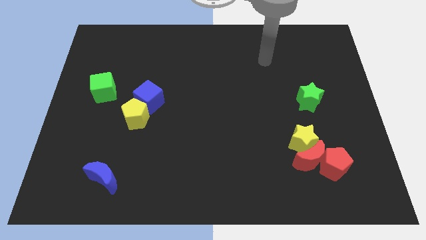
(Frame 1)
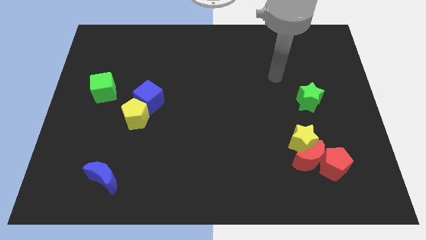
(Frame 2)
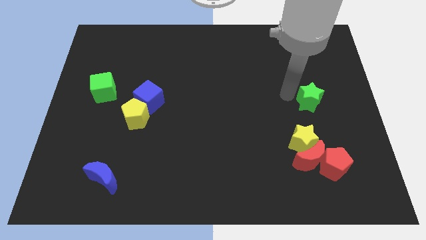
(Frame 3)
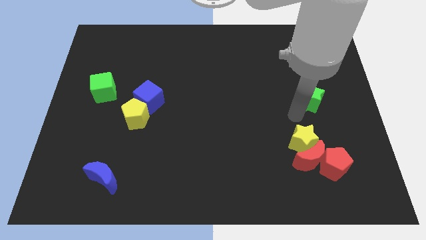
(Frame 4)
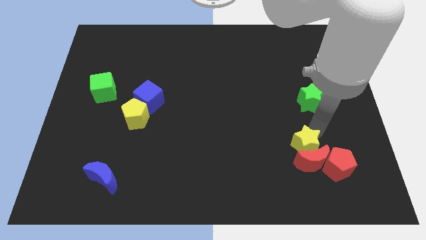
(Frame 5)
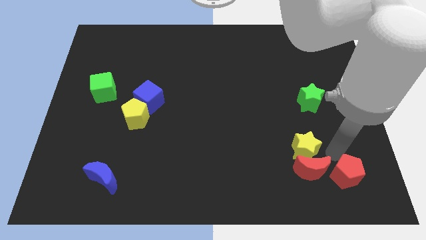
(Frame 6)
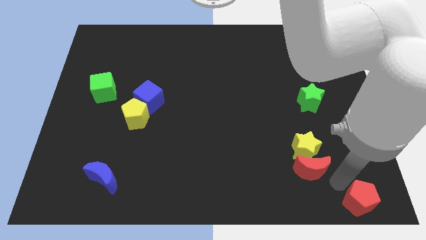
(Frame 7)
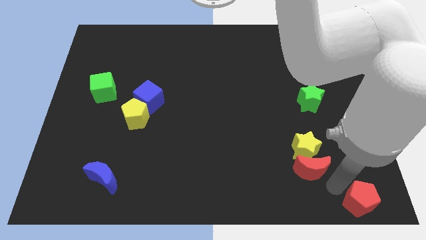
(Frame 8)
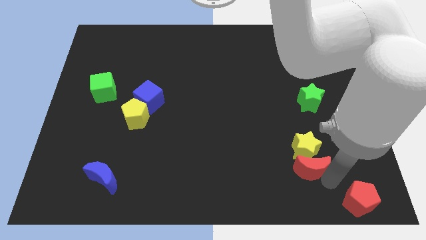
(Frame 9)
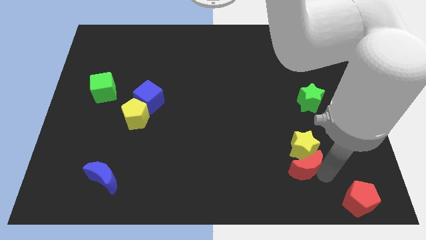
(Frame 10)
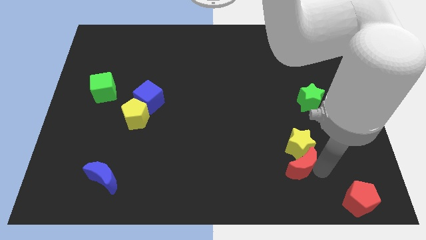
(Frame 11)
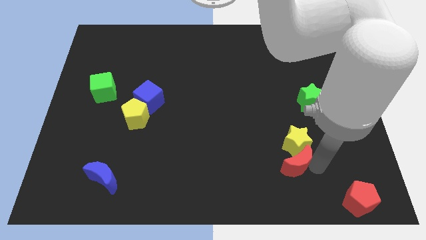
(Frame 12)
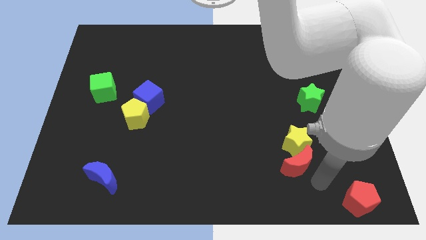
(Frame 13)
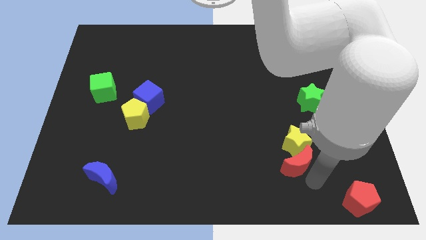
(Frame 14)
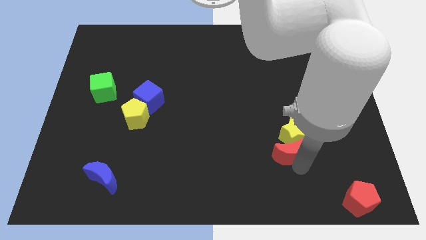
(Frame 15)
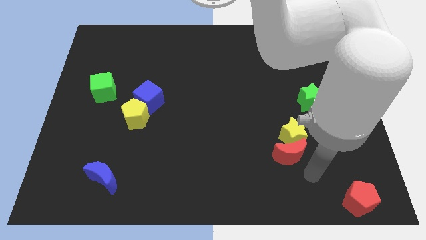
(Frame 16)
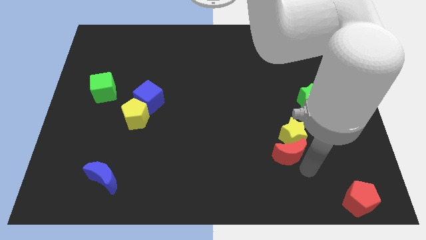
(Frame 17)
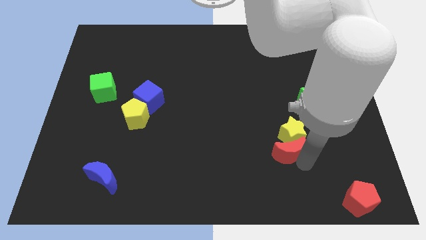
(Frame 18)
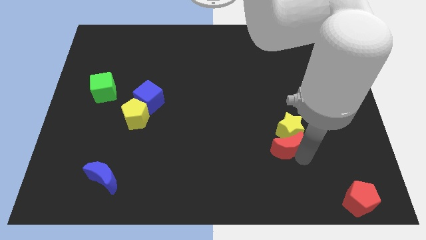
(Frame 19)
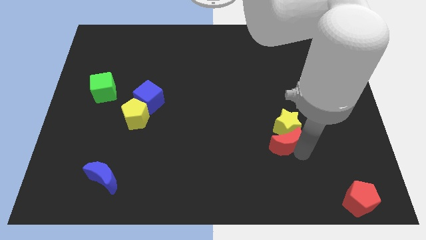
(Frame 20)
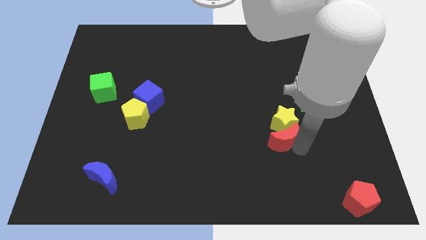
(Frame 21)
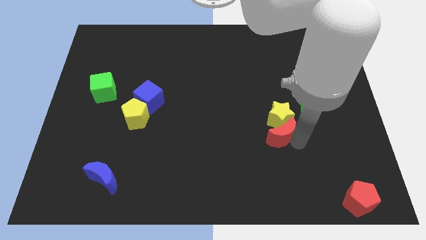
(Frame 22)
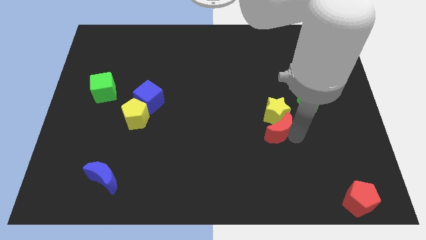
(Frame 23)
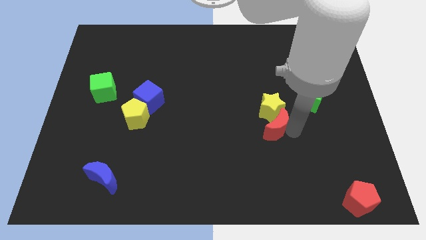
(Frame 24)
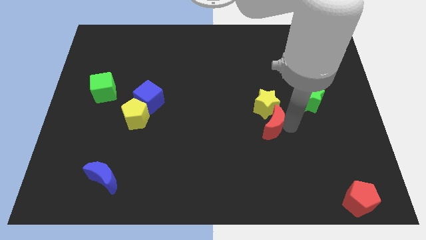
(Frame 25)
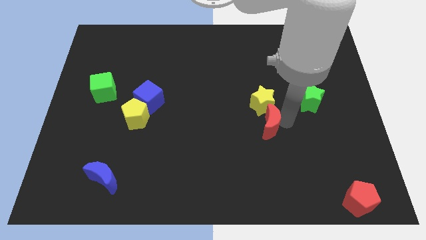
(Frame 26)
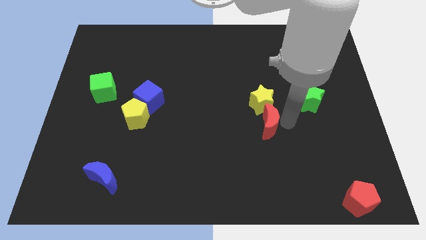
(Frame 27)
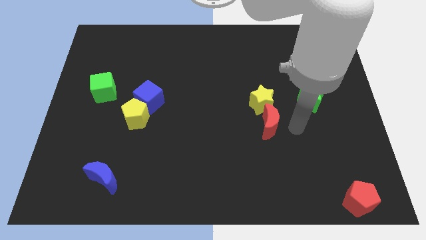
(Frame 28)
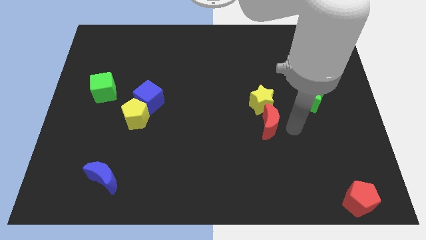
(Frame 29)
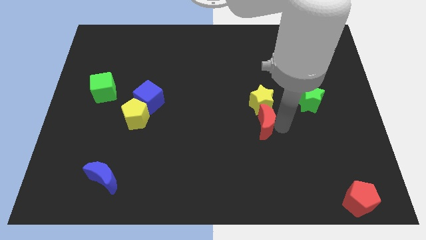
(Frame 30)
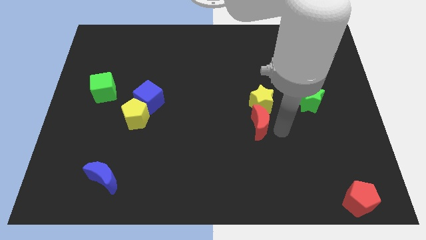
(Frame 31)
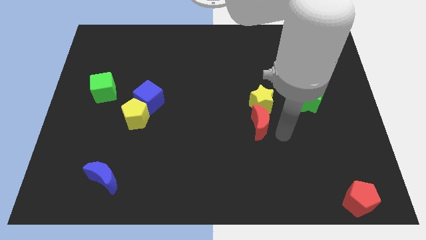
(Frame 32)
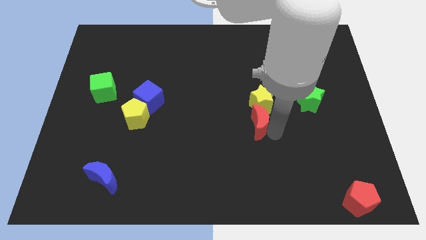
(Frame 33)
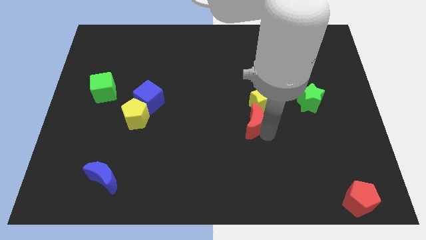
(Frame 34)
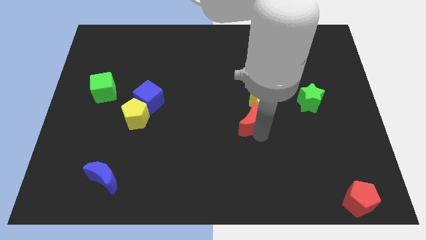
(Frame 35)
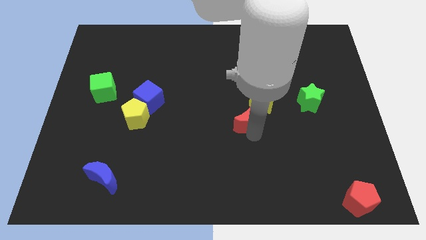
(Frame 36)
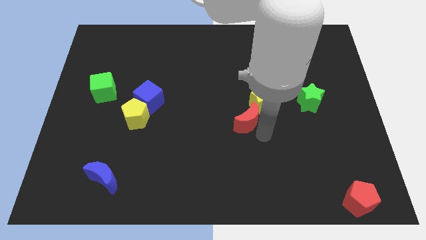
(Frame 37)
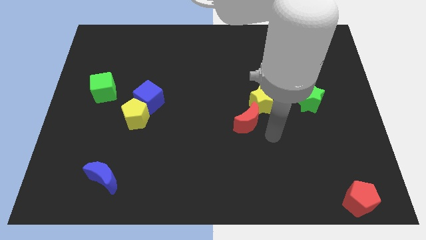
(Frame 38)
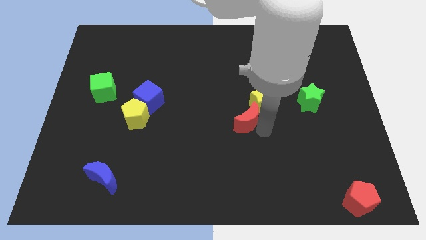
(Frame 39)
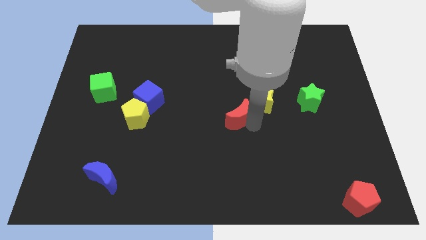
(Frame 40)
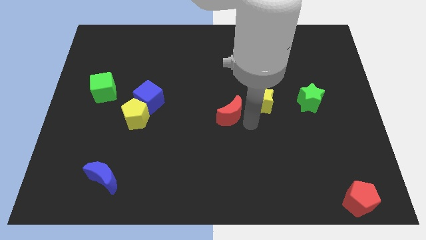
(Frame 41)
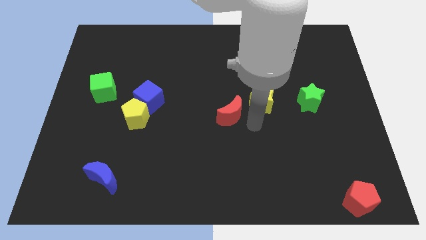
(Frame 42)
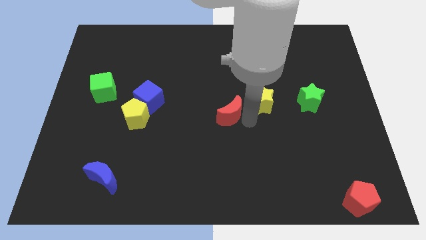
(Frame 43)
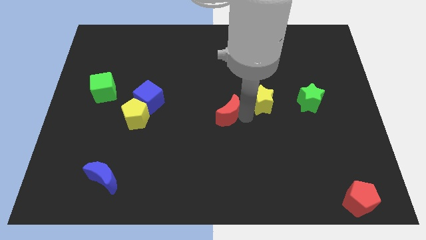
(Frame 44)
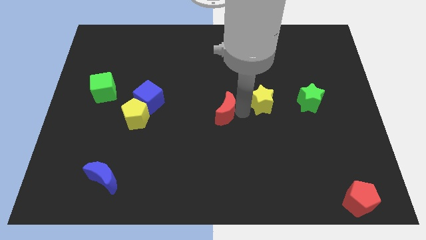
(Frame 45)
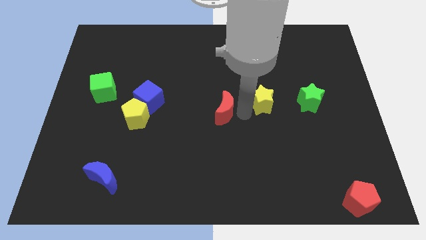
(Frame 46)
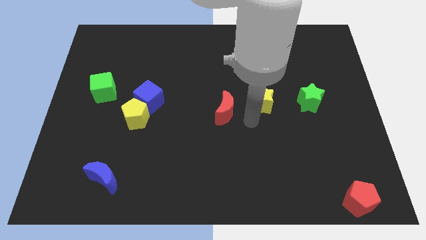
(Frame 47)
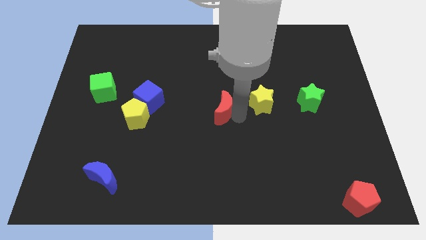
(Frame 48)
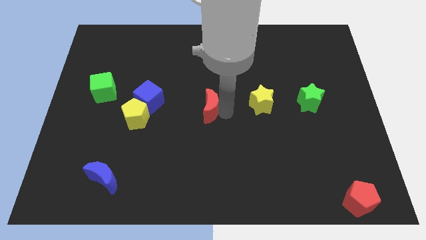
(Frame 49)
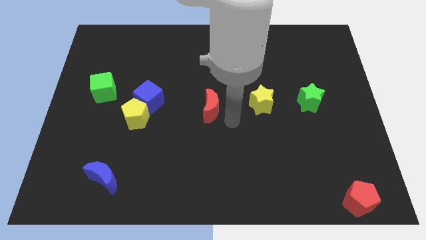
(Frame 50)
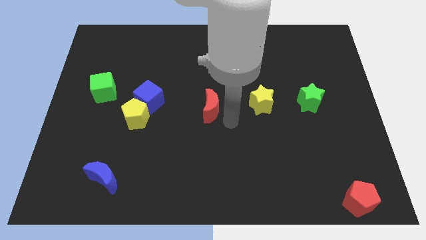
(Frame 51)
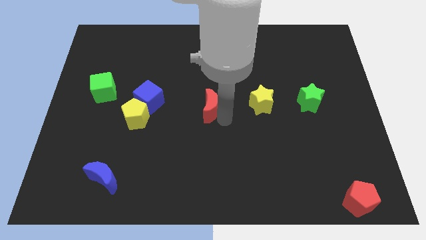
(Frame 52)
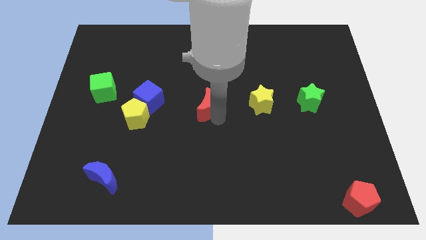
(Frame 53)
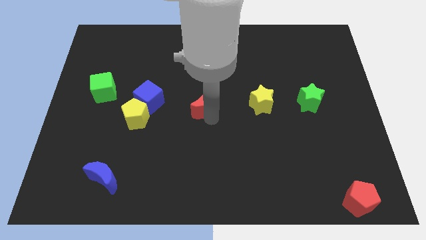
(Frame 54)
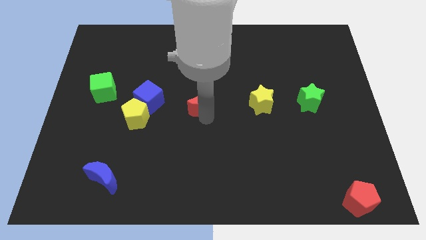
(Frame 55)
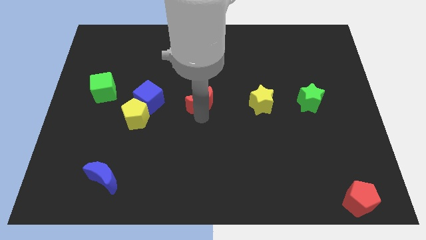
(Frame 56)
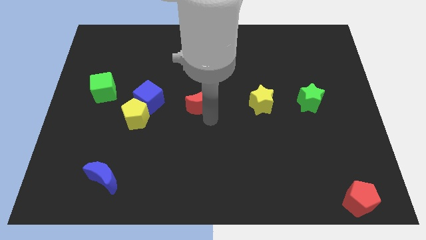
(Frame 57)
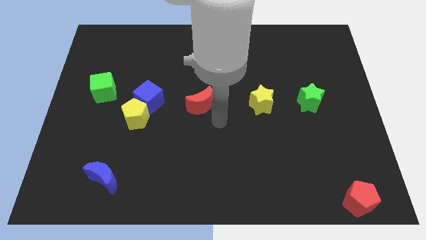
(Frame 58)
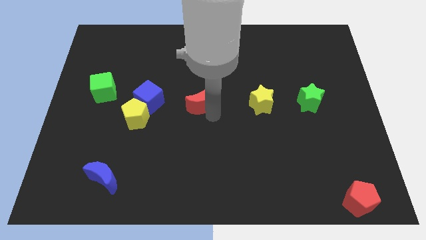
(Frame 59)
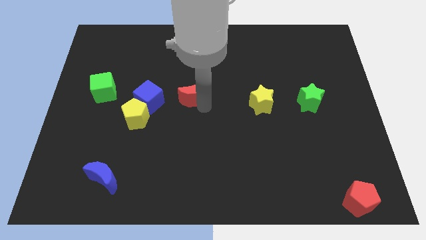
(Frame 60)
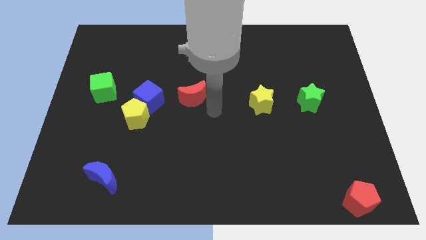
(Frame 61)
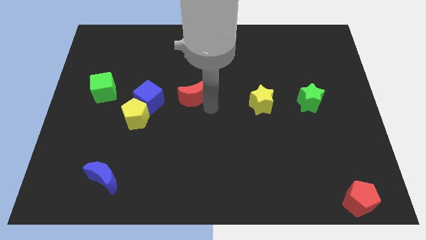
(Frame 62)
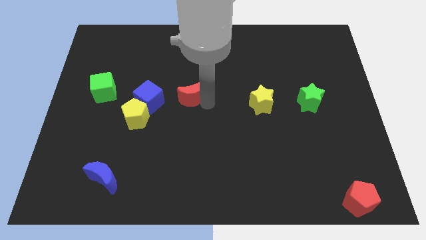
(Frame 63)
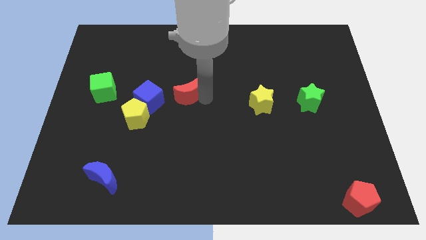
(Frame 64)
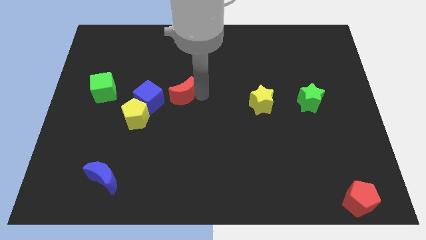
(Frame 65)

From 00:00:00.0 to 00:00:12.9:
put the red moon to the top right side of the blue cube
